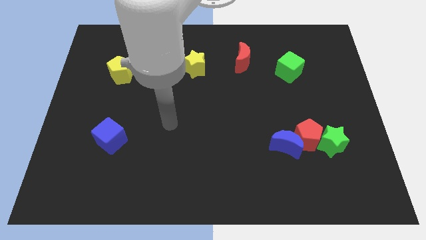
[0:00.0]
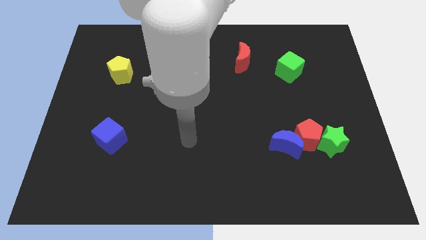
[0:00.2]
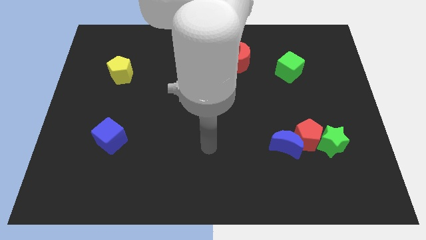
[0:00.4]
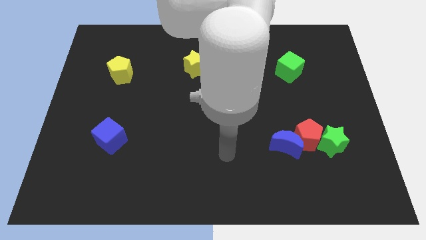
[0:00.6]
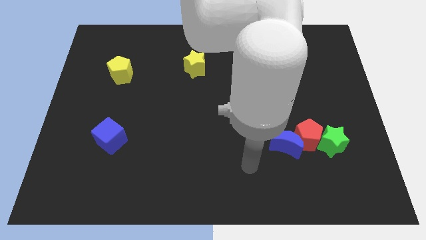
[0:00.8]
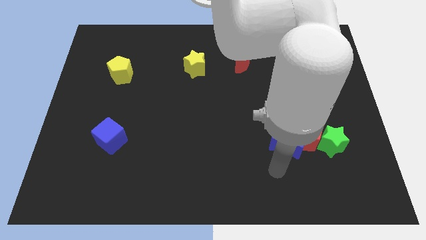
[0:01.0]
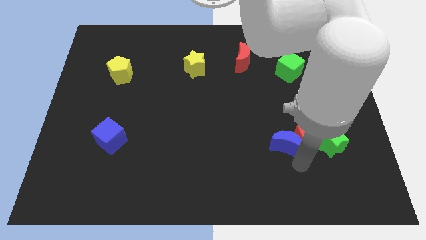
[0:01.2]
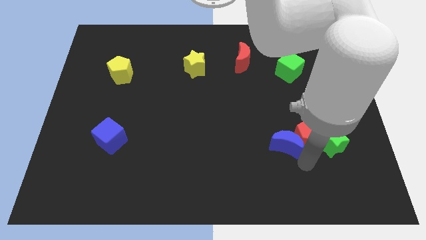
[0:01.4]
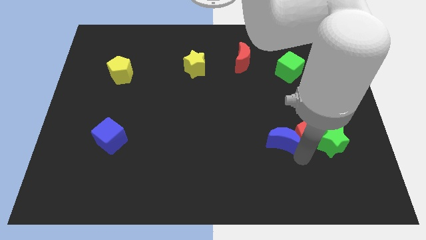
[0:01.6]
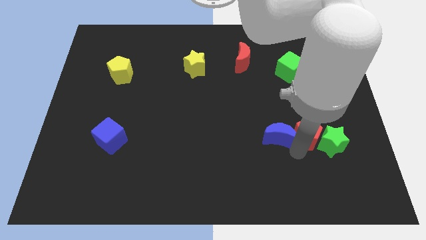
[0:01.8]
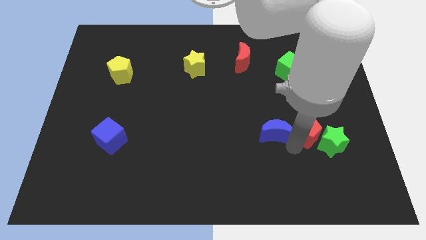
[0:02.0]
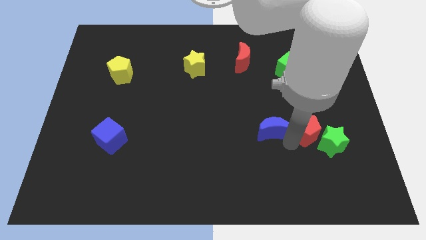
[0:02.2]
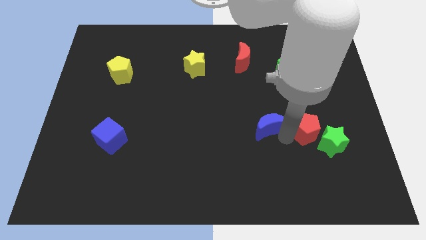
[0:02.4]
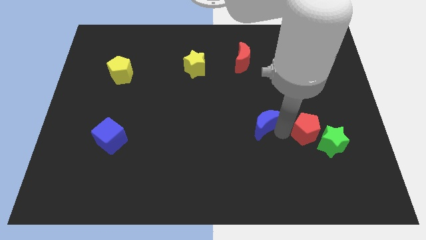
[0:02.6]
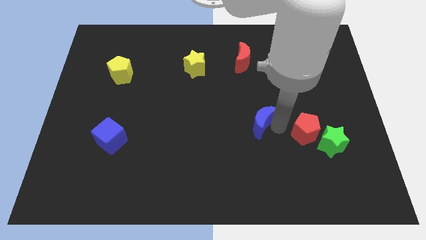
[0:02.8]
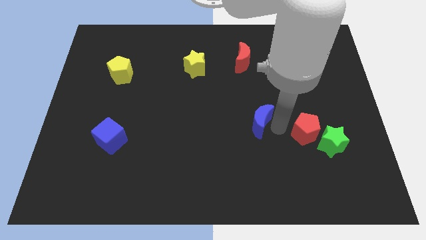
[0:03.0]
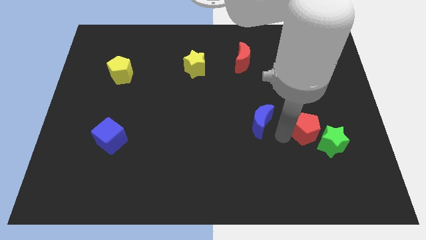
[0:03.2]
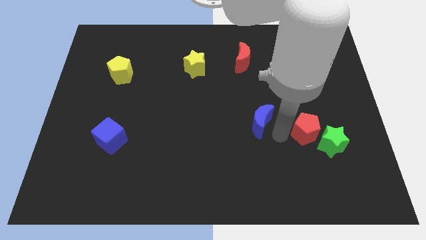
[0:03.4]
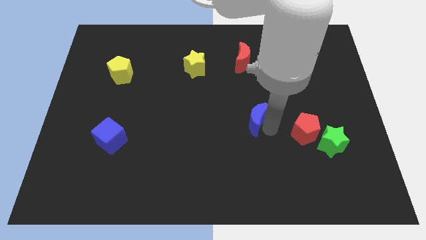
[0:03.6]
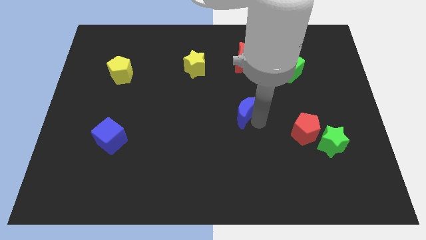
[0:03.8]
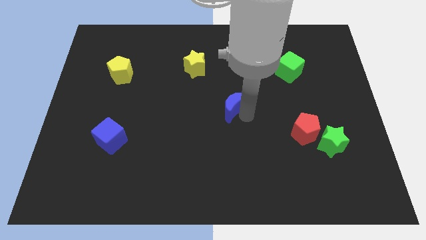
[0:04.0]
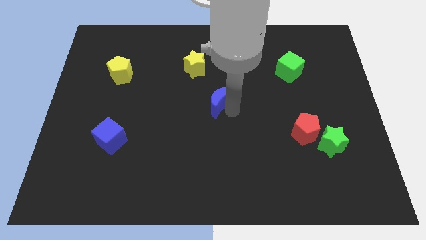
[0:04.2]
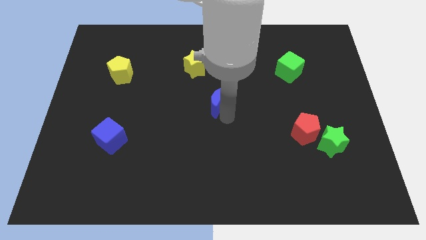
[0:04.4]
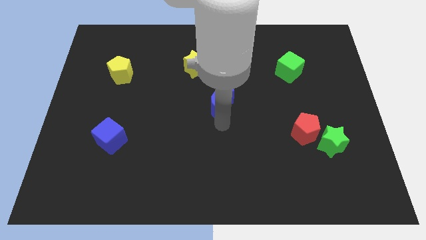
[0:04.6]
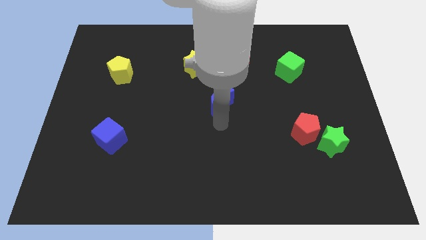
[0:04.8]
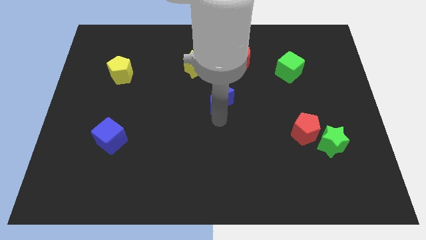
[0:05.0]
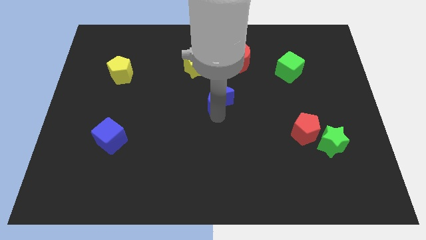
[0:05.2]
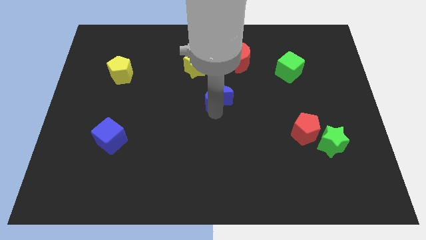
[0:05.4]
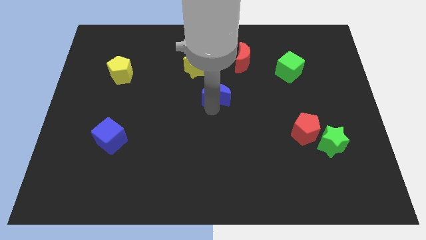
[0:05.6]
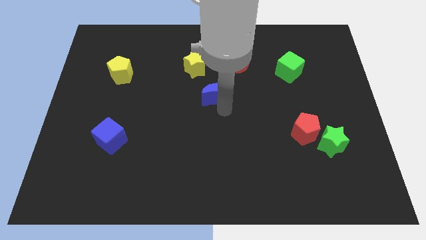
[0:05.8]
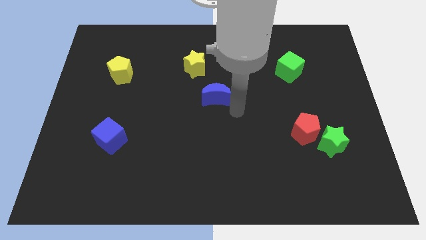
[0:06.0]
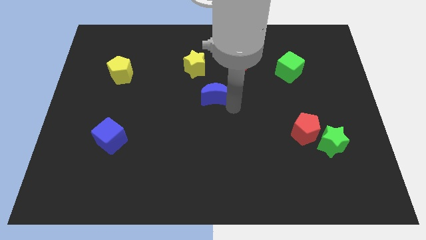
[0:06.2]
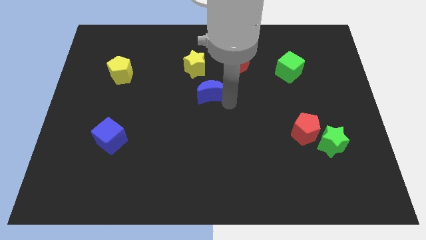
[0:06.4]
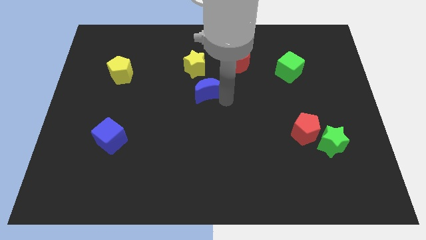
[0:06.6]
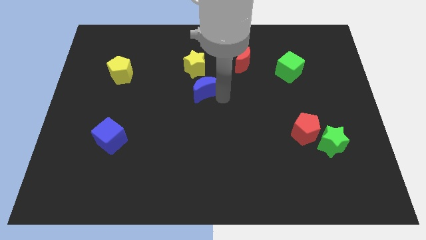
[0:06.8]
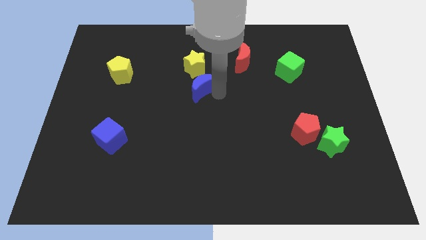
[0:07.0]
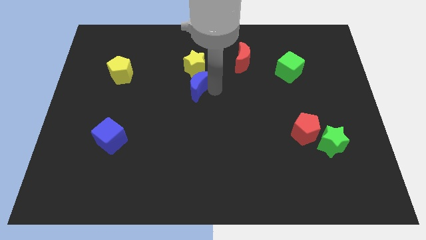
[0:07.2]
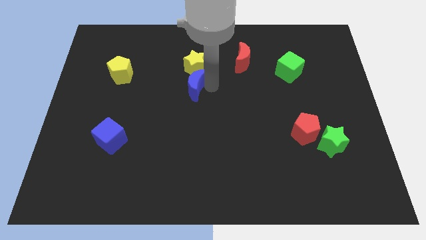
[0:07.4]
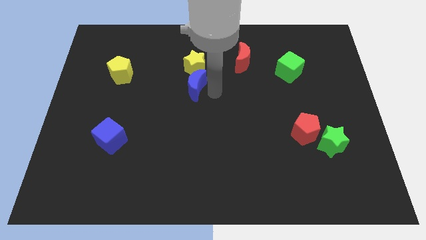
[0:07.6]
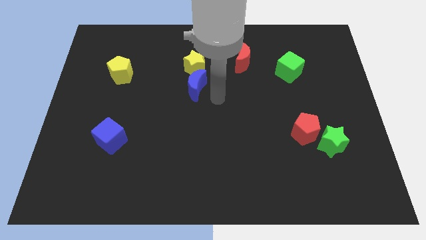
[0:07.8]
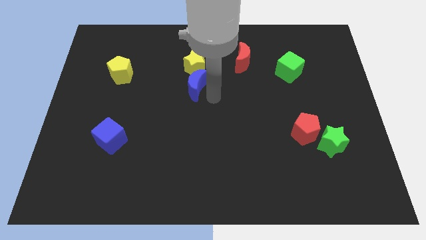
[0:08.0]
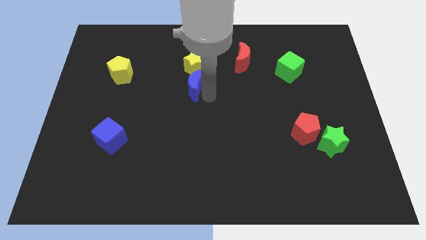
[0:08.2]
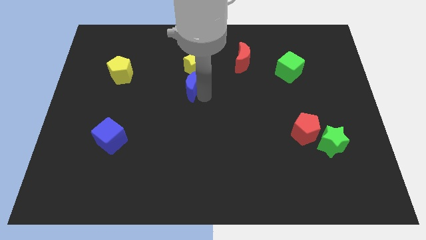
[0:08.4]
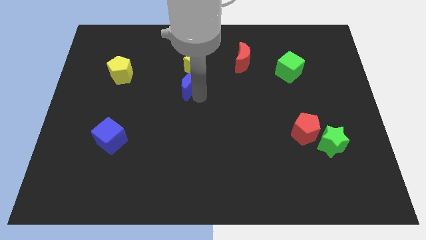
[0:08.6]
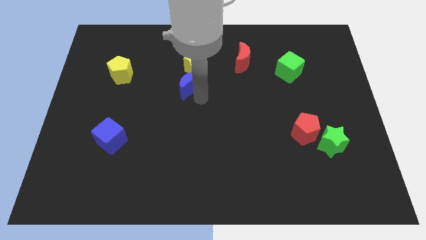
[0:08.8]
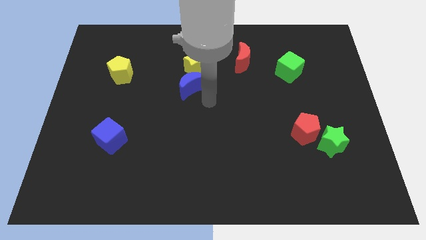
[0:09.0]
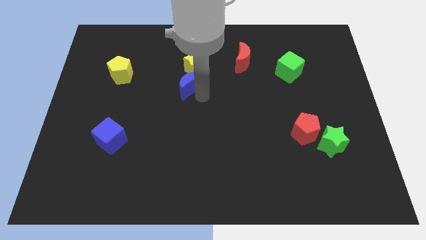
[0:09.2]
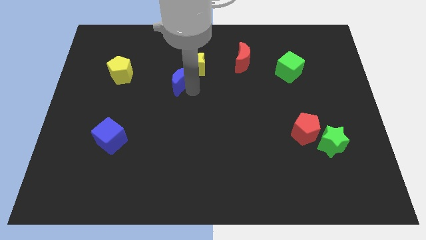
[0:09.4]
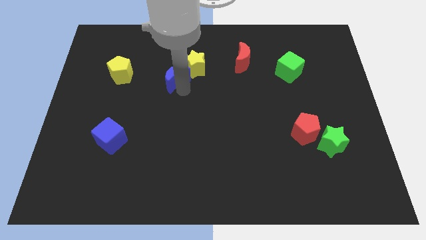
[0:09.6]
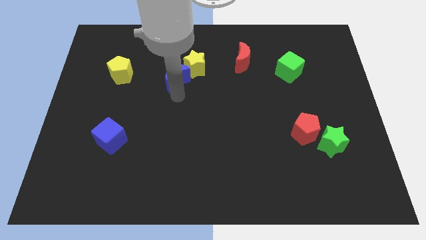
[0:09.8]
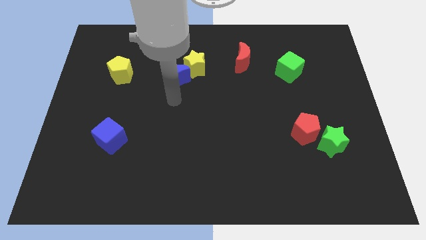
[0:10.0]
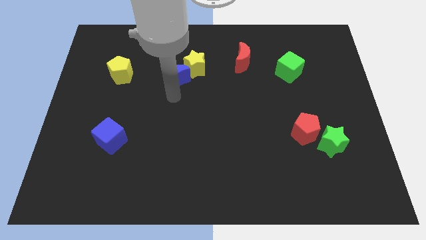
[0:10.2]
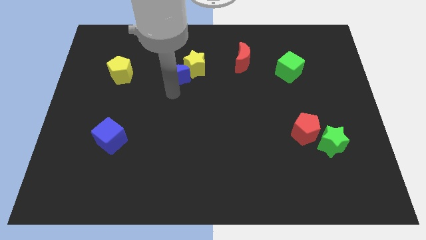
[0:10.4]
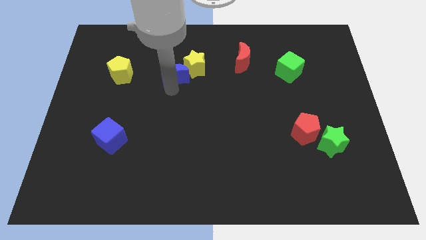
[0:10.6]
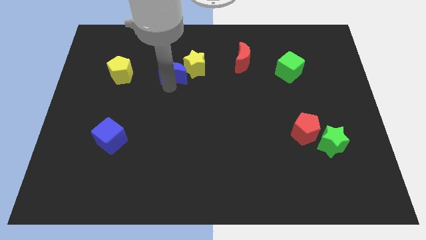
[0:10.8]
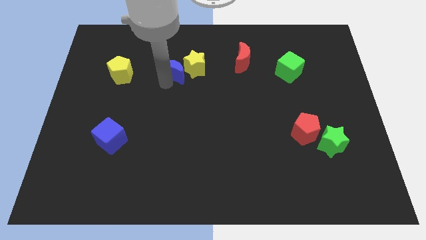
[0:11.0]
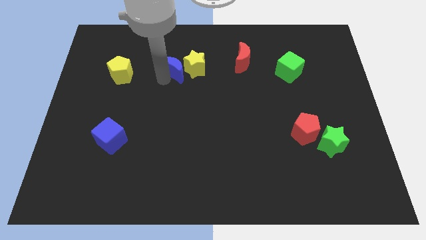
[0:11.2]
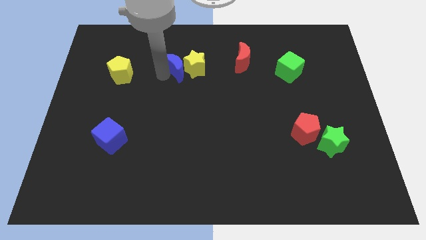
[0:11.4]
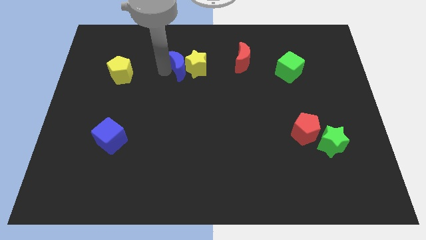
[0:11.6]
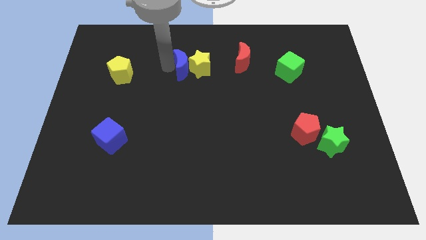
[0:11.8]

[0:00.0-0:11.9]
move the blue moon to the left side of the red moon

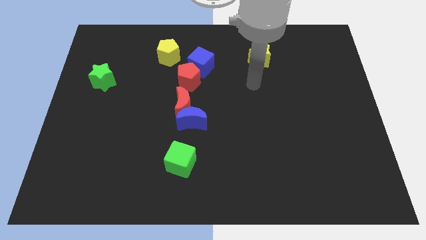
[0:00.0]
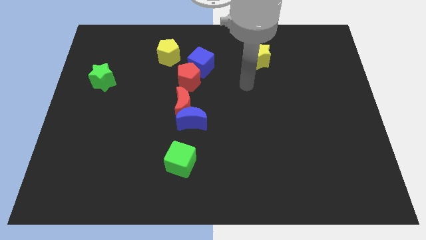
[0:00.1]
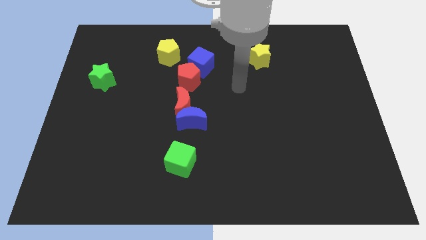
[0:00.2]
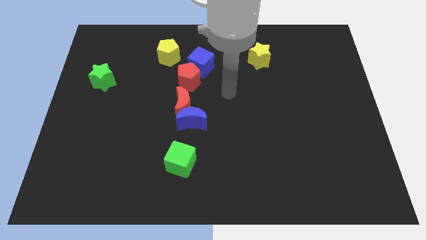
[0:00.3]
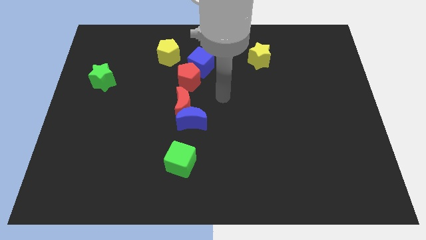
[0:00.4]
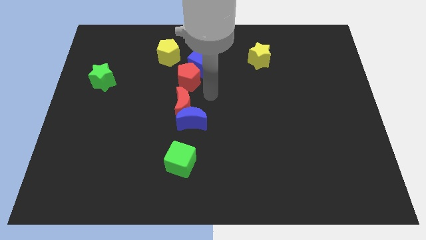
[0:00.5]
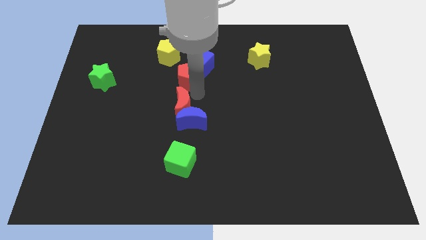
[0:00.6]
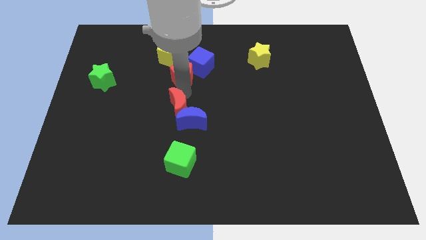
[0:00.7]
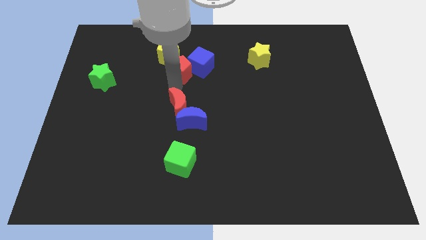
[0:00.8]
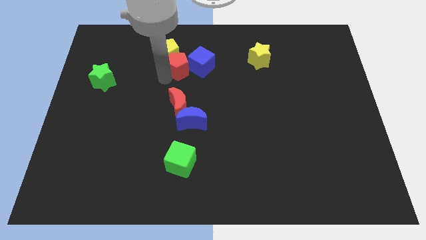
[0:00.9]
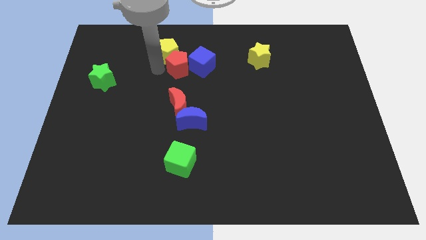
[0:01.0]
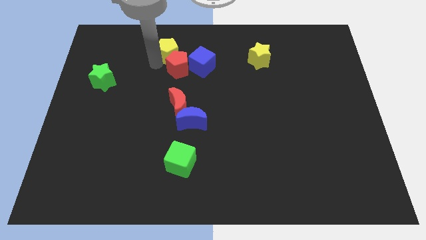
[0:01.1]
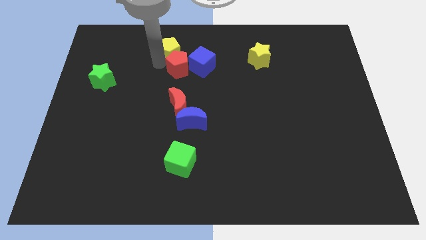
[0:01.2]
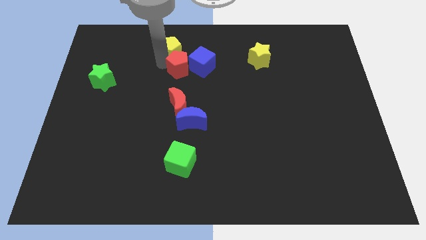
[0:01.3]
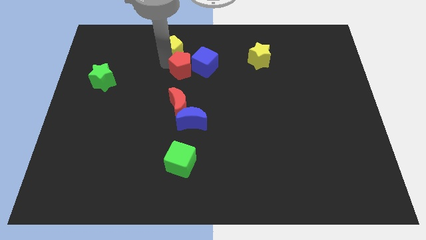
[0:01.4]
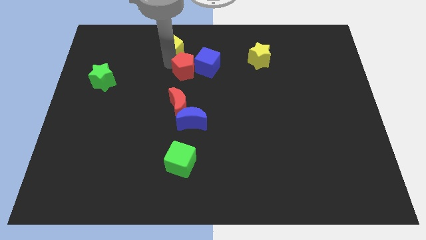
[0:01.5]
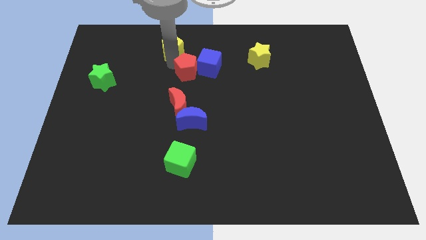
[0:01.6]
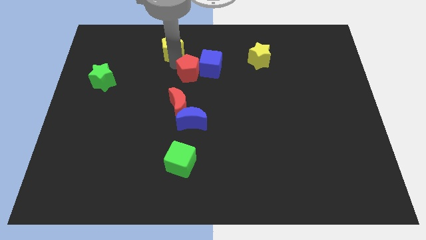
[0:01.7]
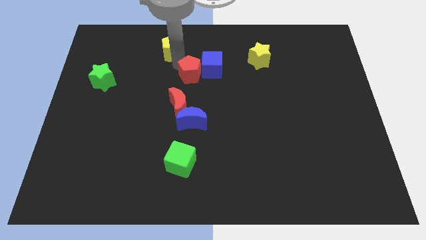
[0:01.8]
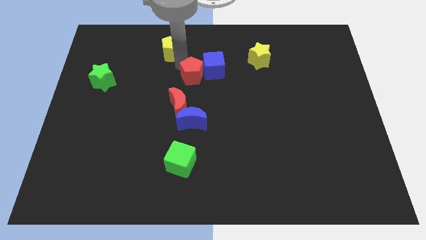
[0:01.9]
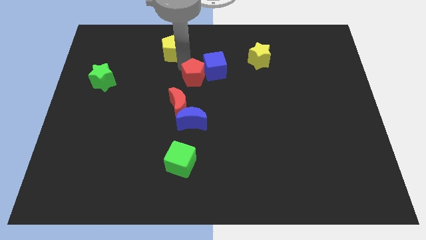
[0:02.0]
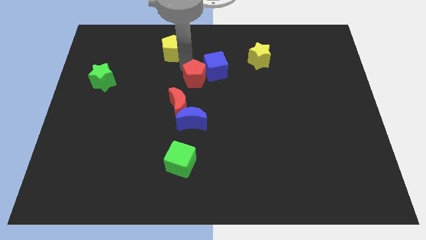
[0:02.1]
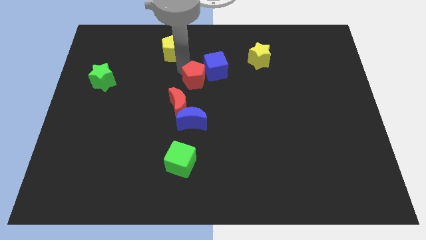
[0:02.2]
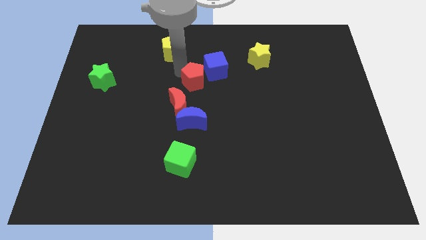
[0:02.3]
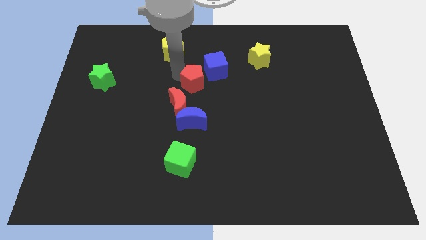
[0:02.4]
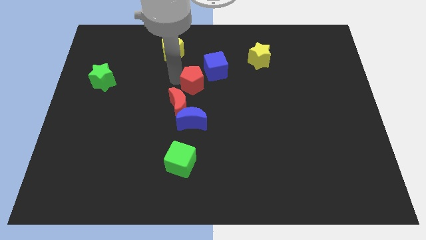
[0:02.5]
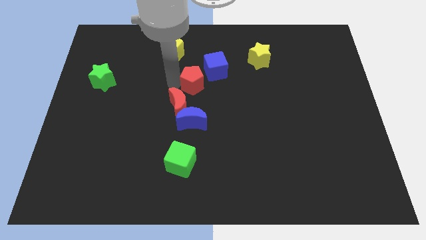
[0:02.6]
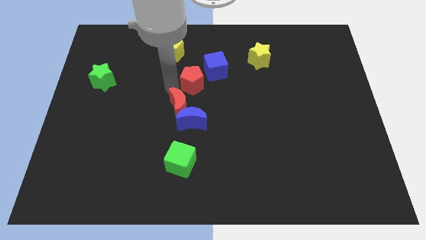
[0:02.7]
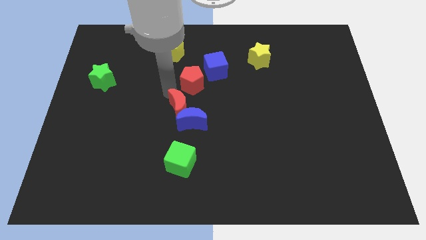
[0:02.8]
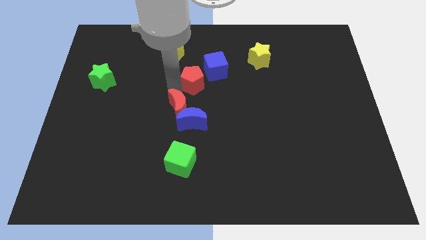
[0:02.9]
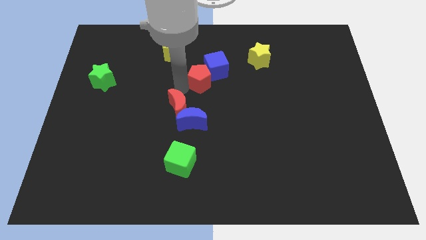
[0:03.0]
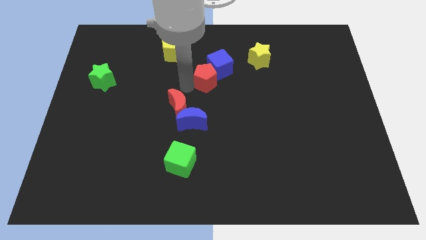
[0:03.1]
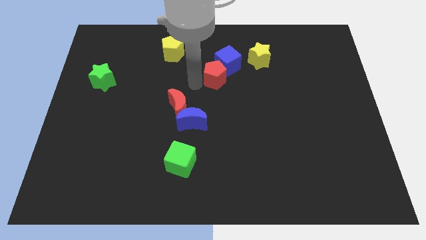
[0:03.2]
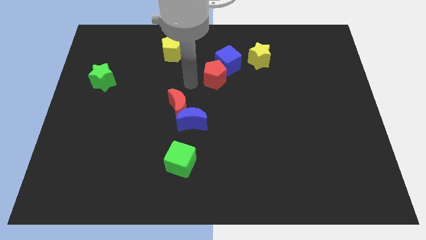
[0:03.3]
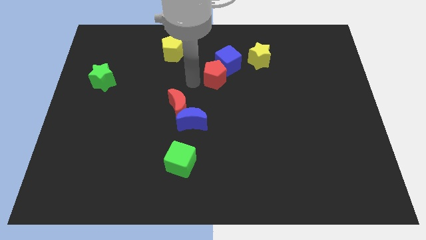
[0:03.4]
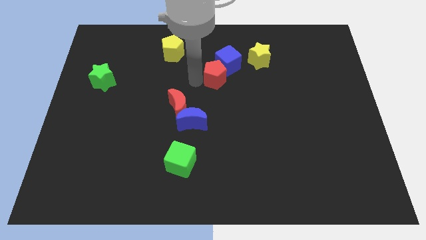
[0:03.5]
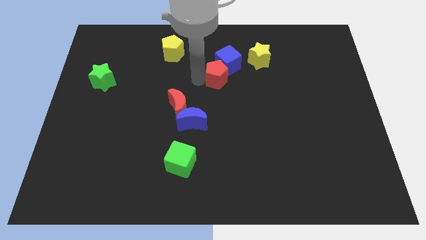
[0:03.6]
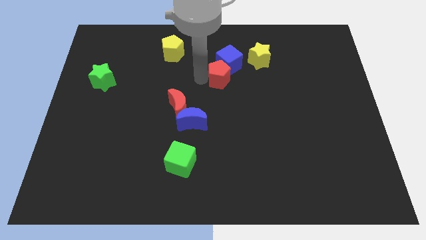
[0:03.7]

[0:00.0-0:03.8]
push the red pentagon to the bottom left side of the yellow star
